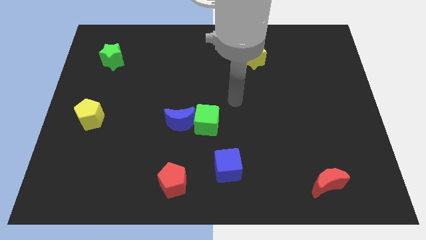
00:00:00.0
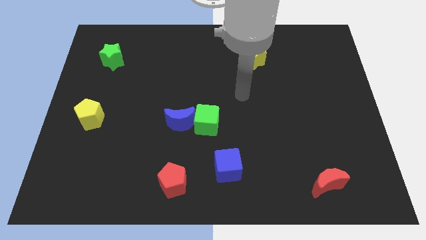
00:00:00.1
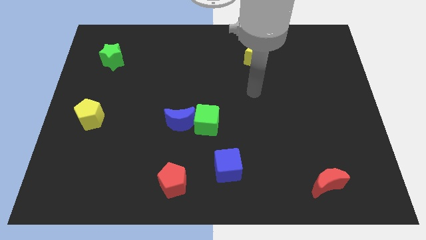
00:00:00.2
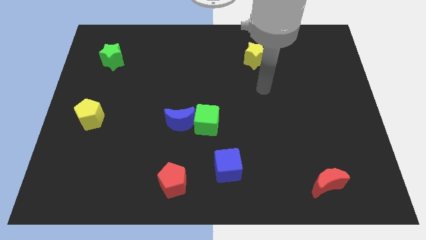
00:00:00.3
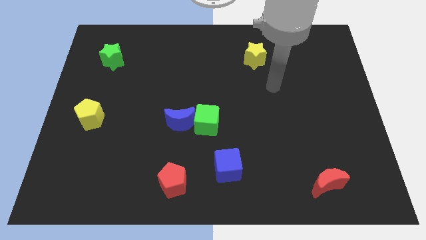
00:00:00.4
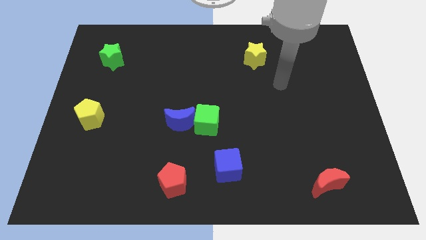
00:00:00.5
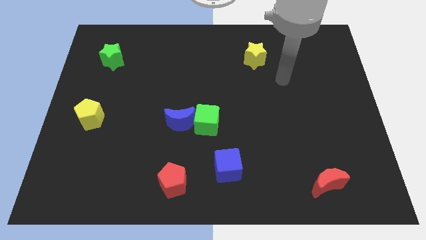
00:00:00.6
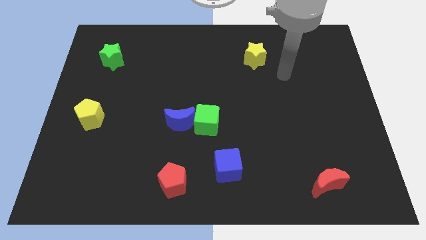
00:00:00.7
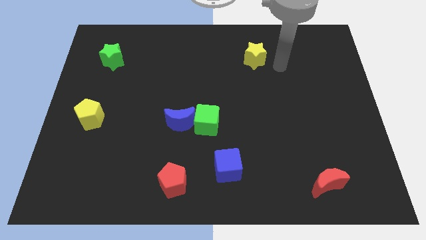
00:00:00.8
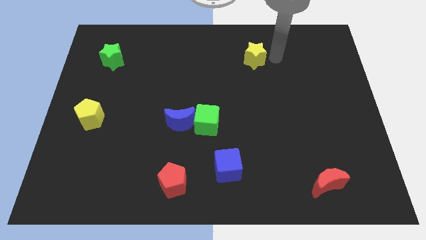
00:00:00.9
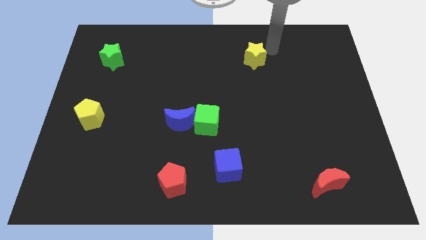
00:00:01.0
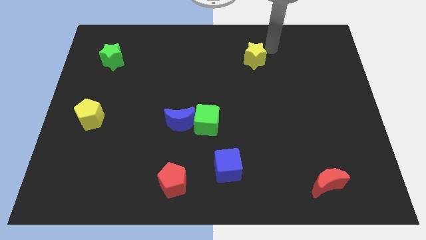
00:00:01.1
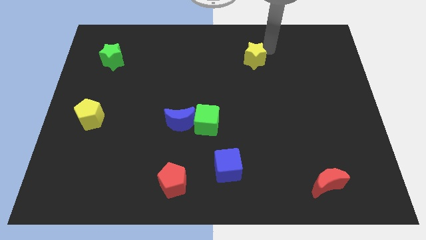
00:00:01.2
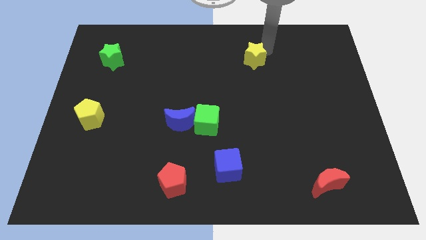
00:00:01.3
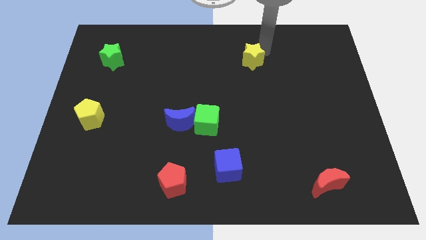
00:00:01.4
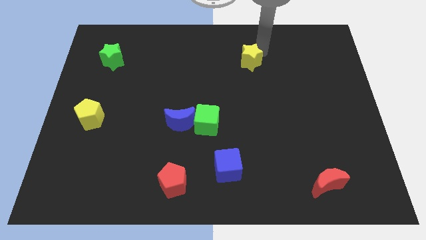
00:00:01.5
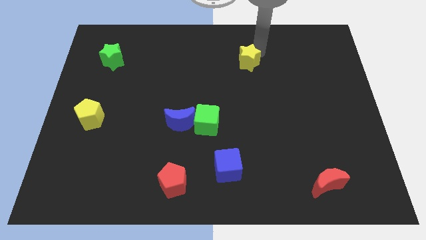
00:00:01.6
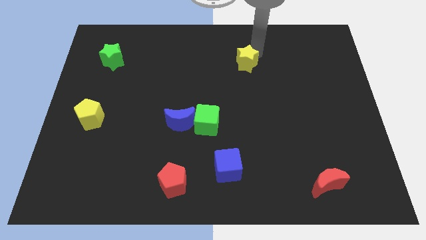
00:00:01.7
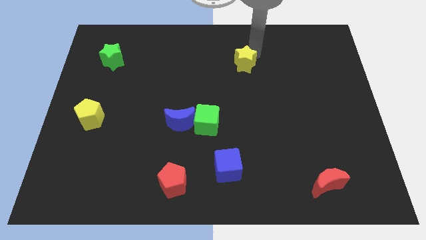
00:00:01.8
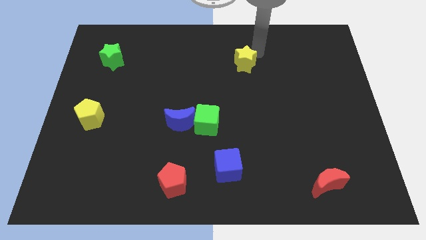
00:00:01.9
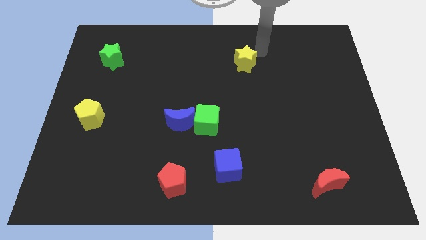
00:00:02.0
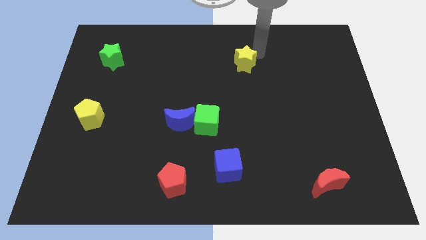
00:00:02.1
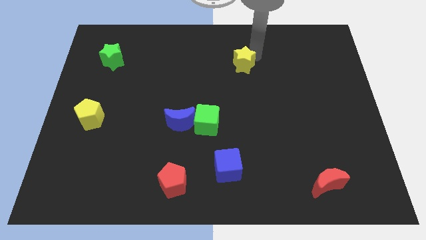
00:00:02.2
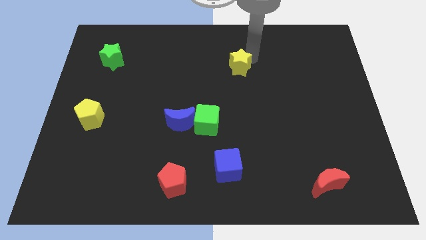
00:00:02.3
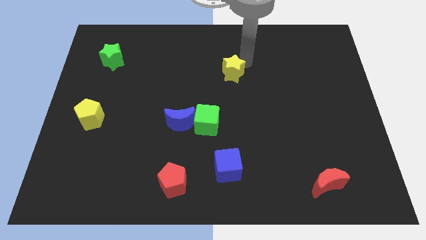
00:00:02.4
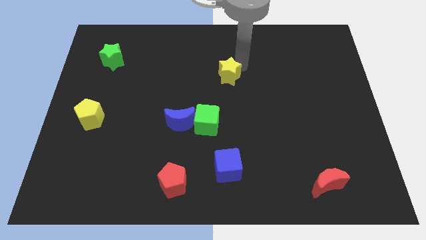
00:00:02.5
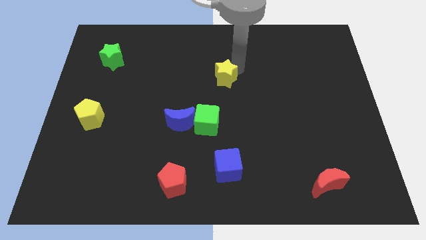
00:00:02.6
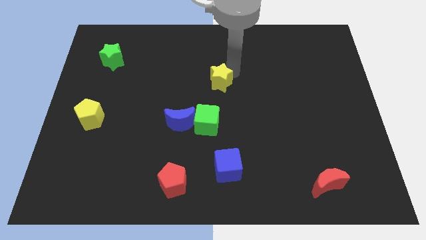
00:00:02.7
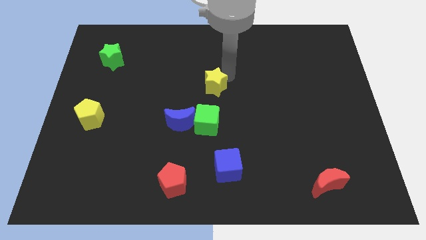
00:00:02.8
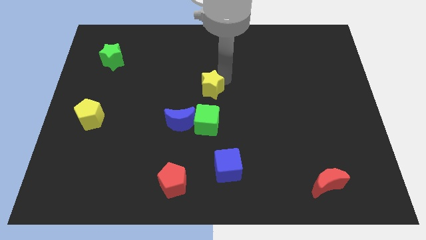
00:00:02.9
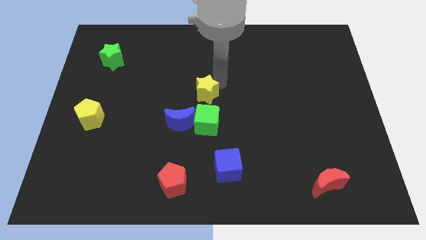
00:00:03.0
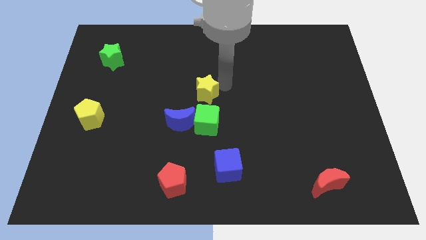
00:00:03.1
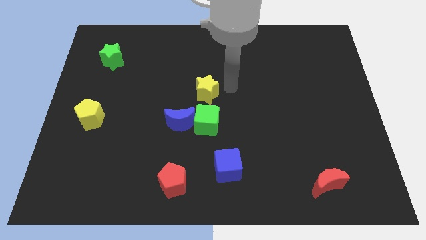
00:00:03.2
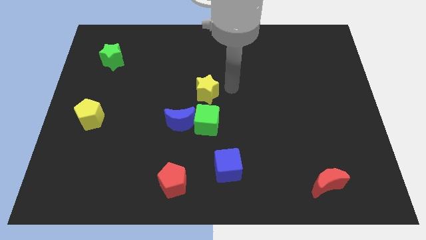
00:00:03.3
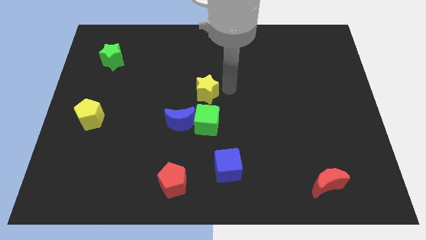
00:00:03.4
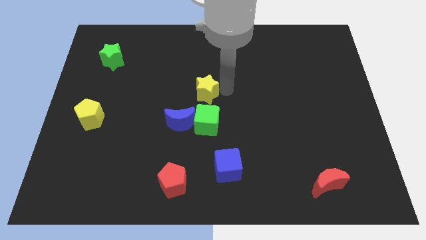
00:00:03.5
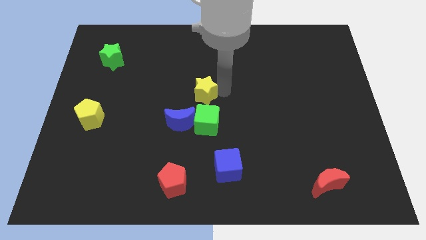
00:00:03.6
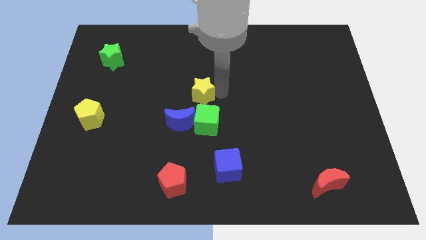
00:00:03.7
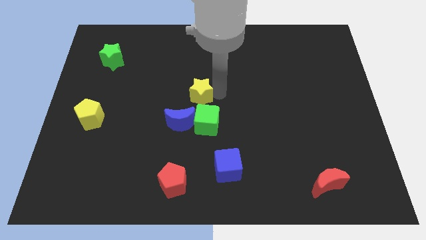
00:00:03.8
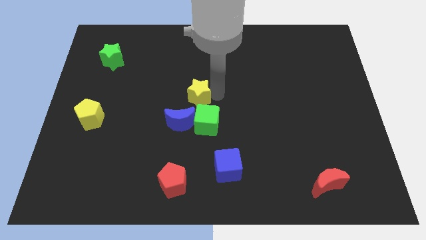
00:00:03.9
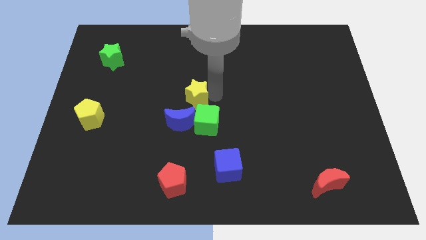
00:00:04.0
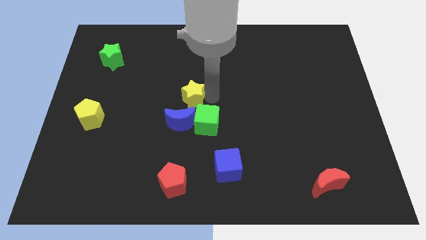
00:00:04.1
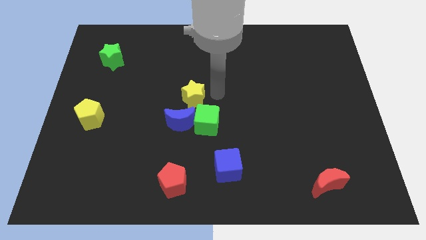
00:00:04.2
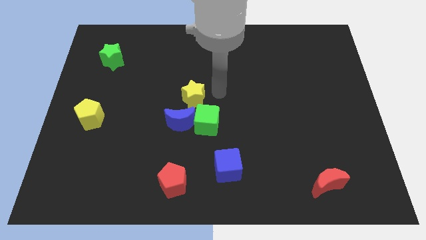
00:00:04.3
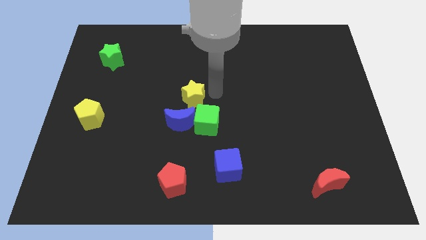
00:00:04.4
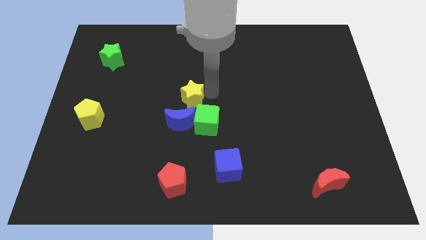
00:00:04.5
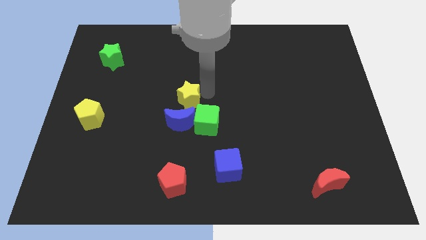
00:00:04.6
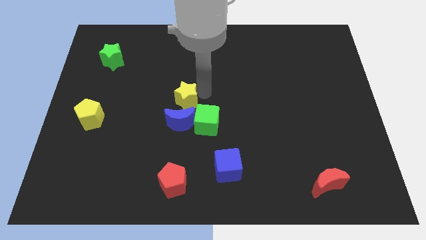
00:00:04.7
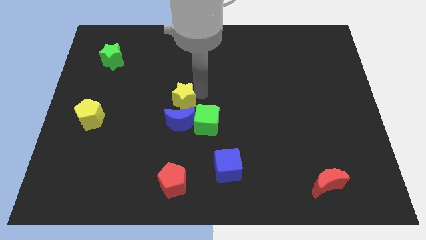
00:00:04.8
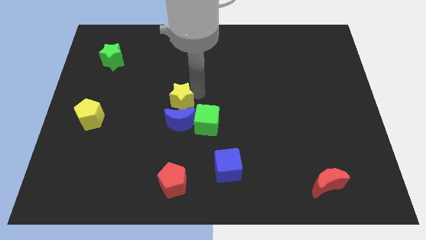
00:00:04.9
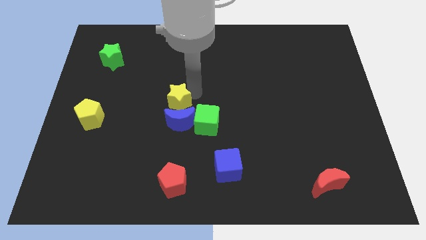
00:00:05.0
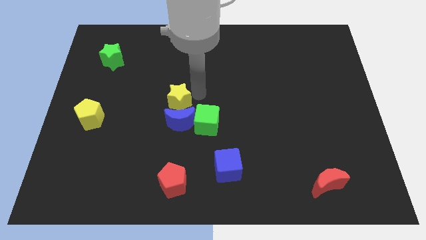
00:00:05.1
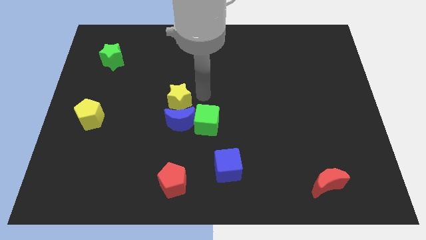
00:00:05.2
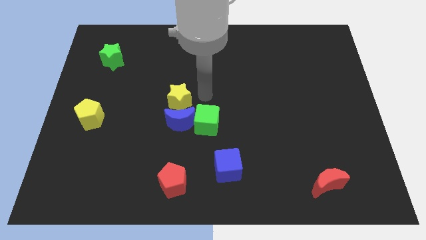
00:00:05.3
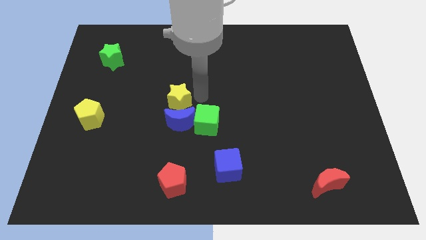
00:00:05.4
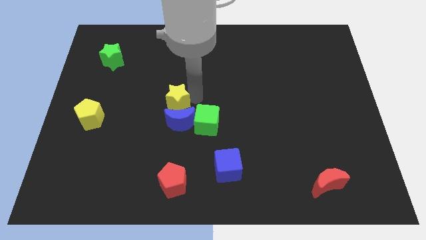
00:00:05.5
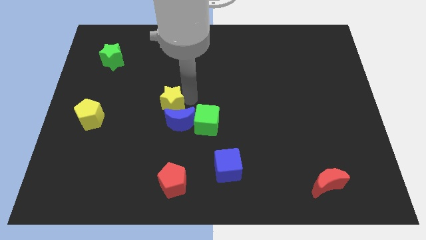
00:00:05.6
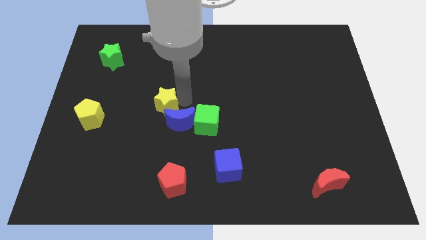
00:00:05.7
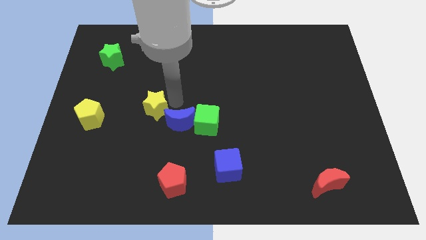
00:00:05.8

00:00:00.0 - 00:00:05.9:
slide the yellow star left of the blue moon

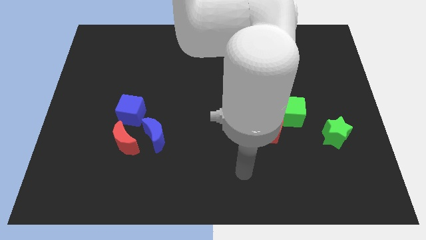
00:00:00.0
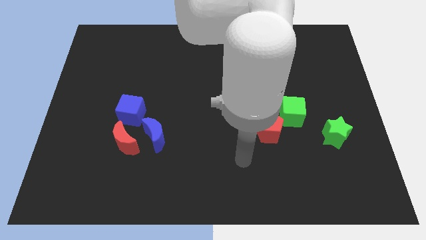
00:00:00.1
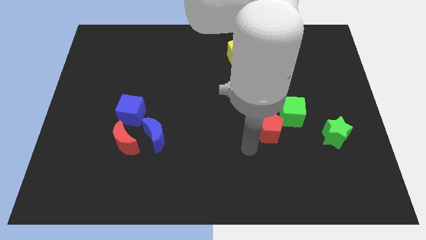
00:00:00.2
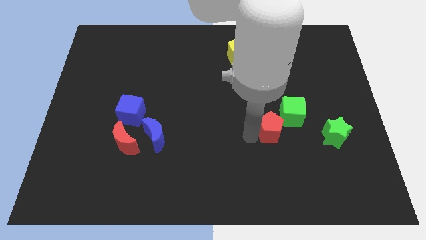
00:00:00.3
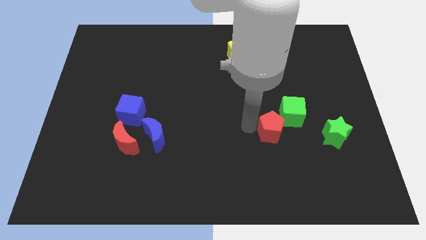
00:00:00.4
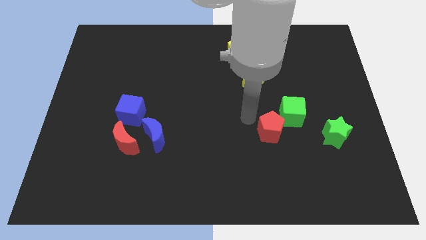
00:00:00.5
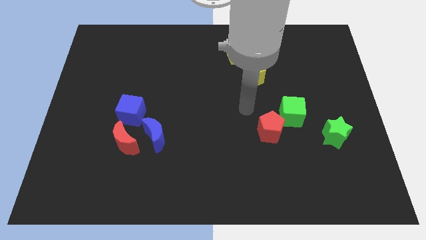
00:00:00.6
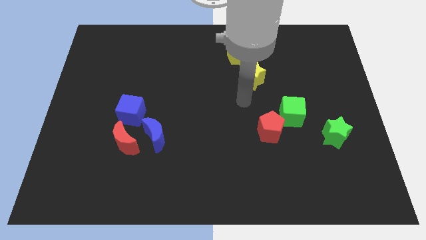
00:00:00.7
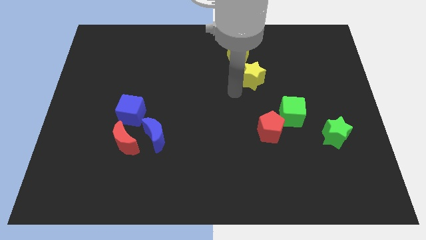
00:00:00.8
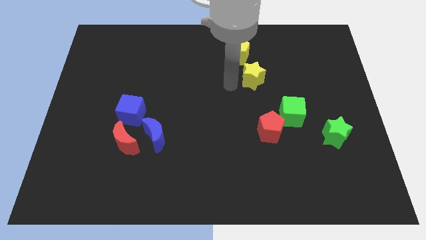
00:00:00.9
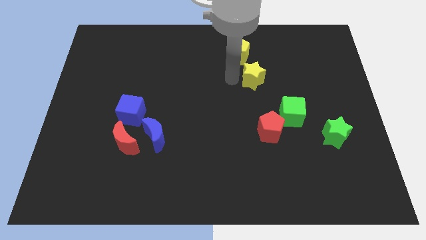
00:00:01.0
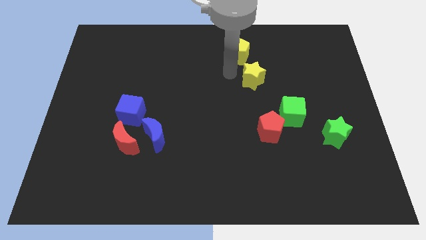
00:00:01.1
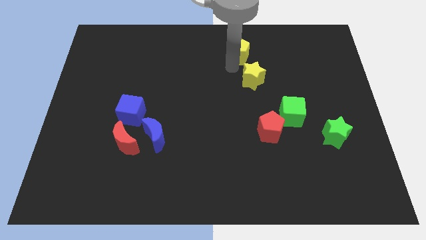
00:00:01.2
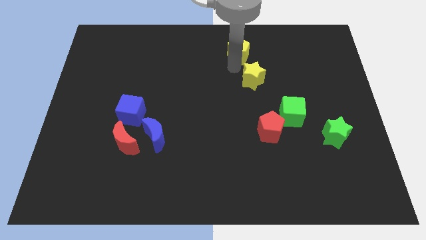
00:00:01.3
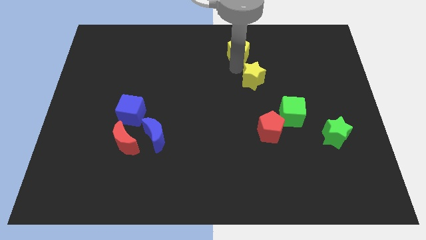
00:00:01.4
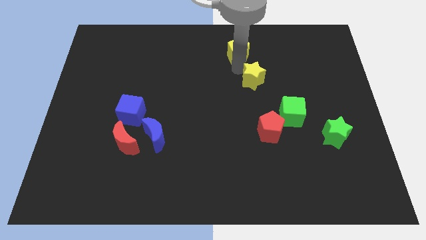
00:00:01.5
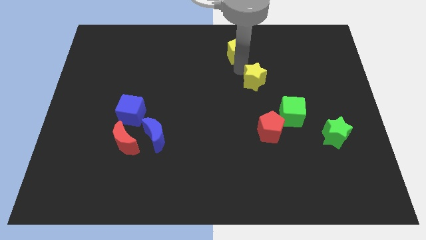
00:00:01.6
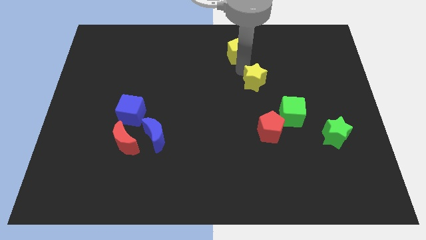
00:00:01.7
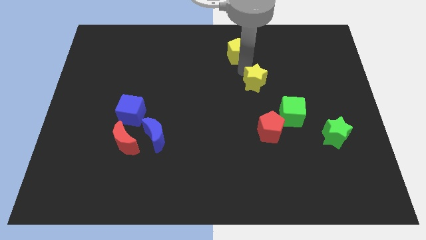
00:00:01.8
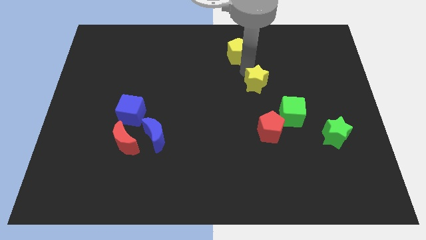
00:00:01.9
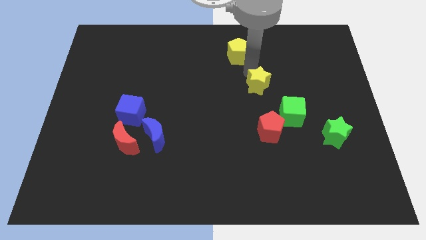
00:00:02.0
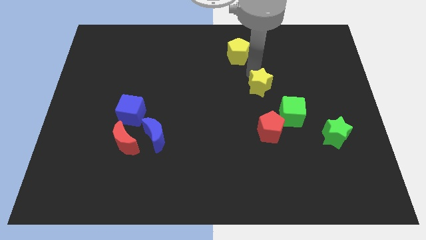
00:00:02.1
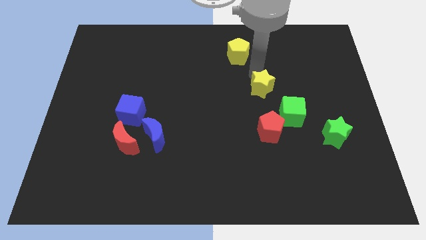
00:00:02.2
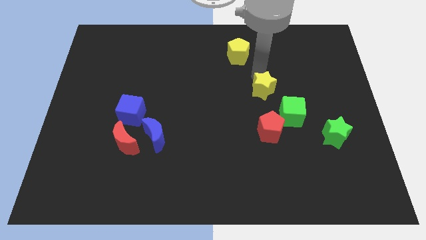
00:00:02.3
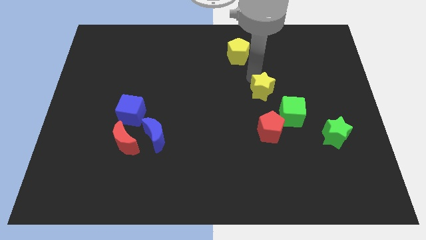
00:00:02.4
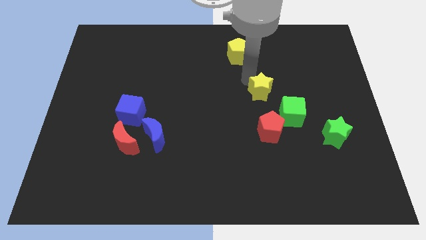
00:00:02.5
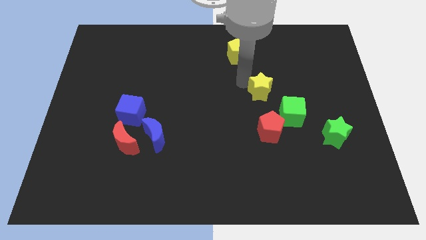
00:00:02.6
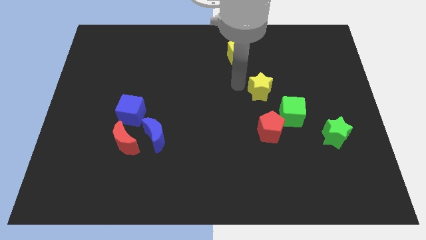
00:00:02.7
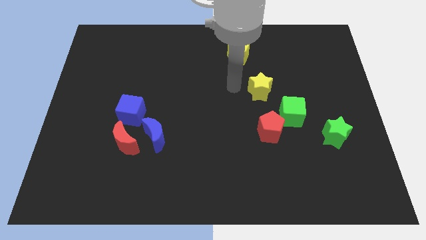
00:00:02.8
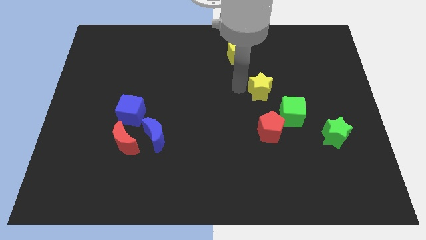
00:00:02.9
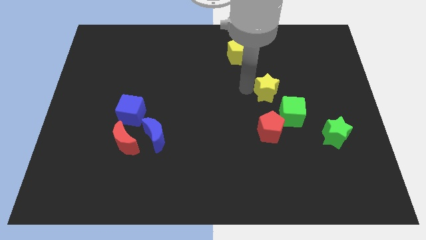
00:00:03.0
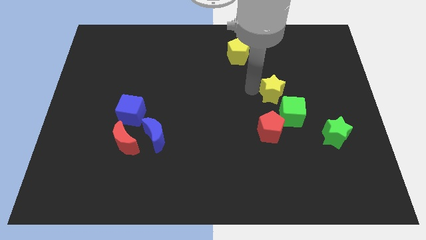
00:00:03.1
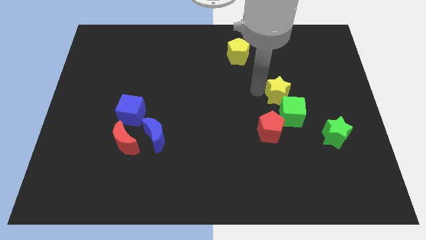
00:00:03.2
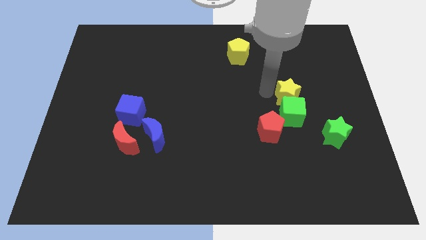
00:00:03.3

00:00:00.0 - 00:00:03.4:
push the yellow star to the top right side of the green cube
